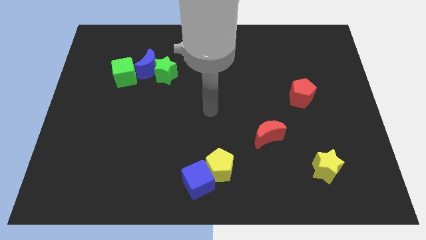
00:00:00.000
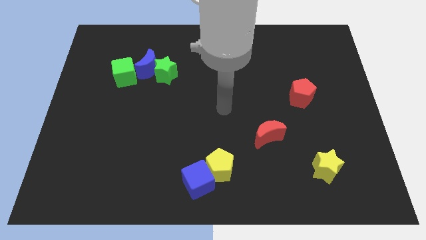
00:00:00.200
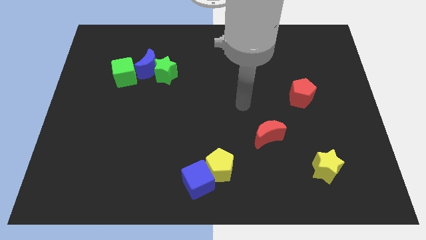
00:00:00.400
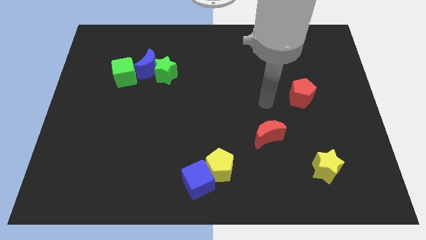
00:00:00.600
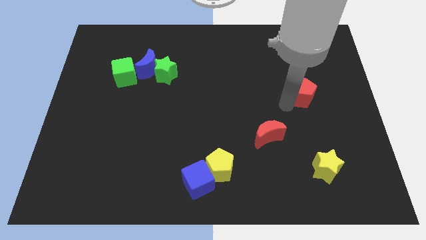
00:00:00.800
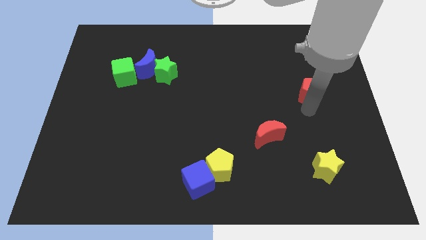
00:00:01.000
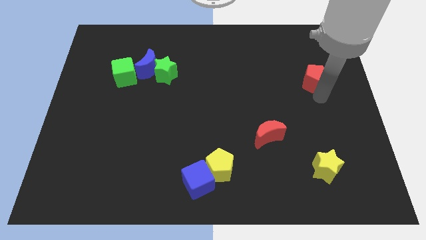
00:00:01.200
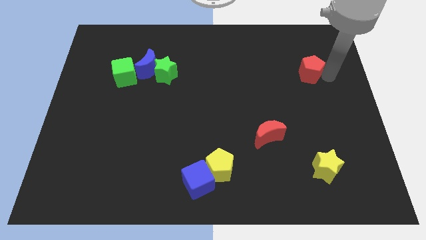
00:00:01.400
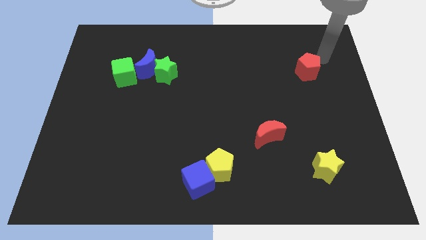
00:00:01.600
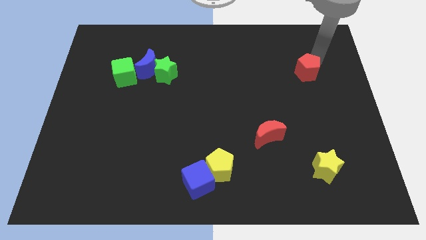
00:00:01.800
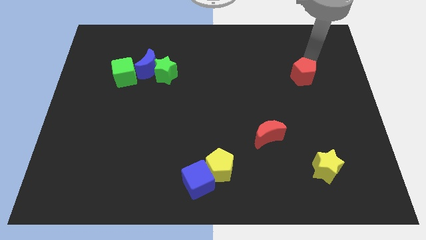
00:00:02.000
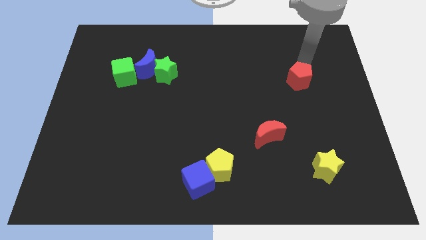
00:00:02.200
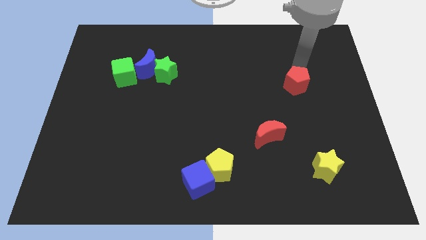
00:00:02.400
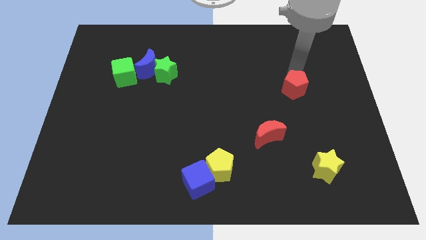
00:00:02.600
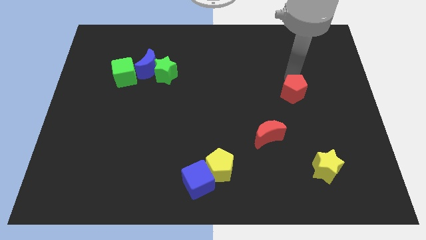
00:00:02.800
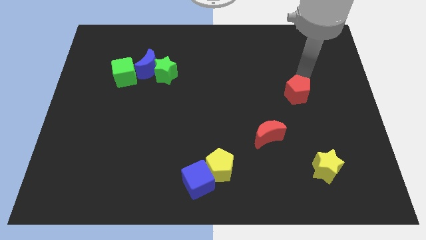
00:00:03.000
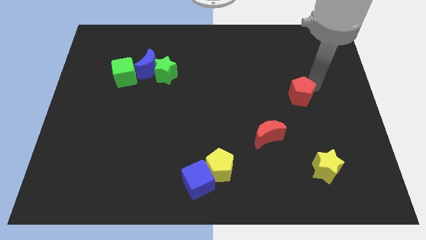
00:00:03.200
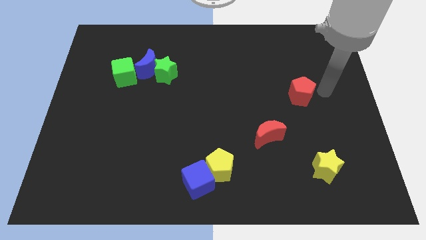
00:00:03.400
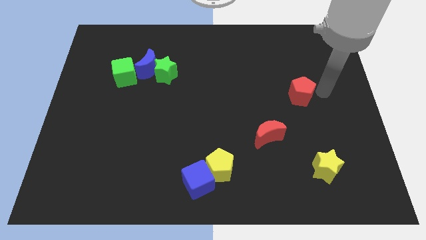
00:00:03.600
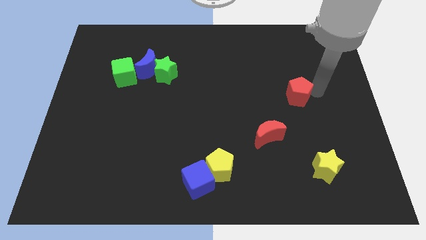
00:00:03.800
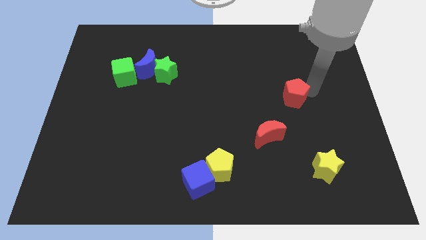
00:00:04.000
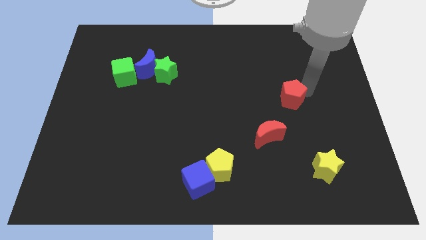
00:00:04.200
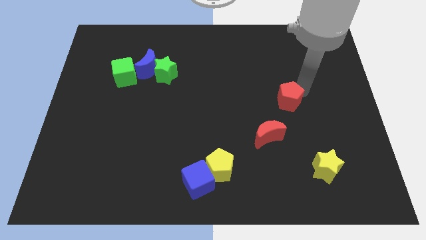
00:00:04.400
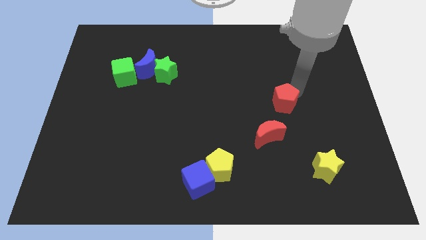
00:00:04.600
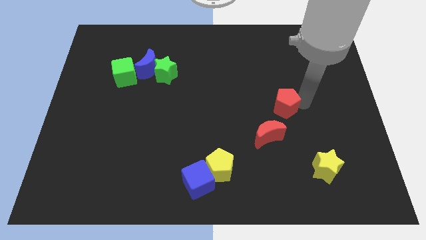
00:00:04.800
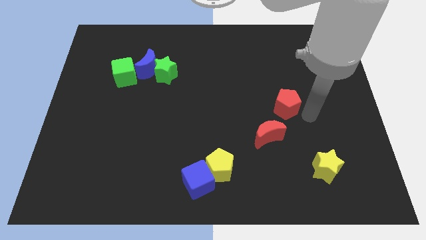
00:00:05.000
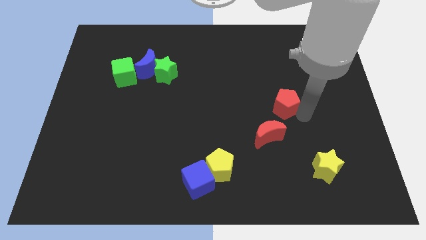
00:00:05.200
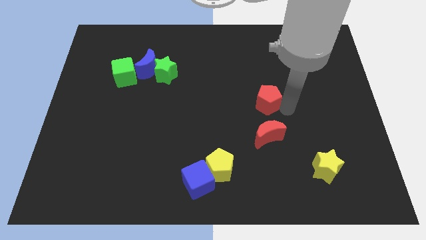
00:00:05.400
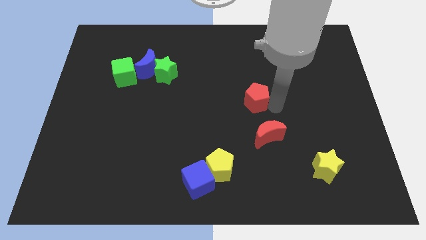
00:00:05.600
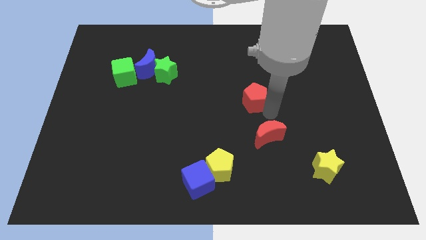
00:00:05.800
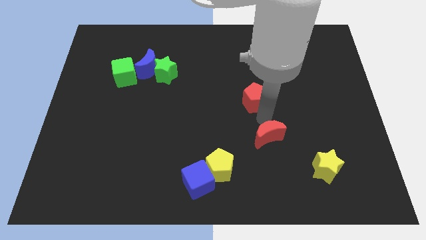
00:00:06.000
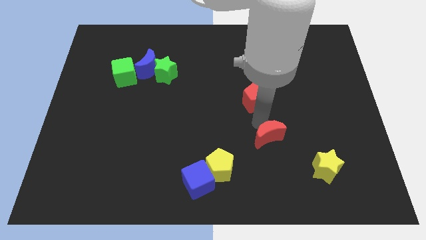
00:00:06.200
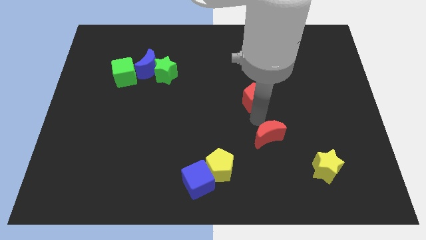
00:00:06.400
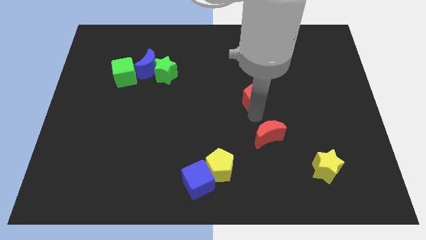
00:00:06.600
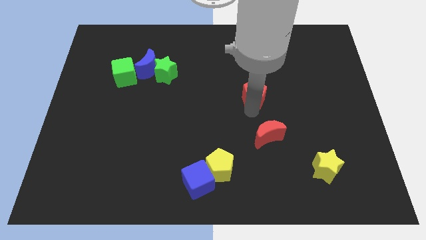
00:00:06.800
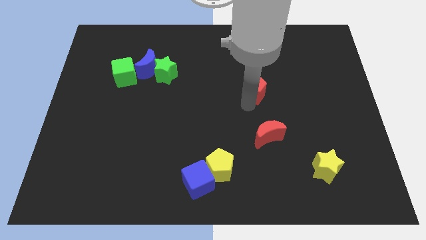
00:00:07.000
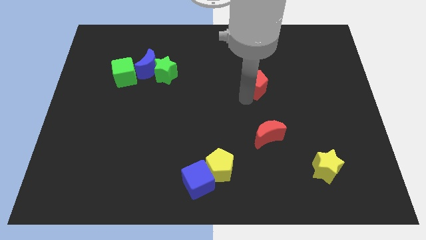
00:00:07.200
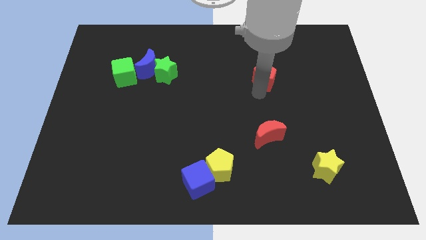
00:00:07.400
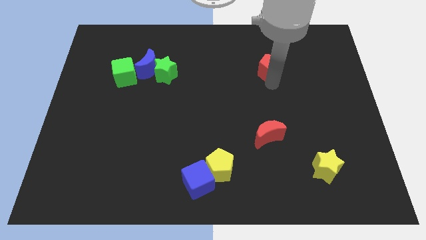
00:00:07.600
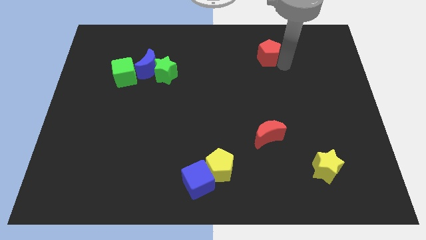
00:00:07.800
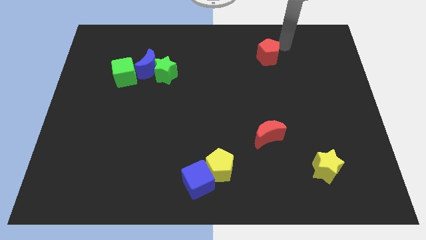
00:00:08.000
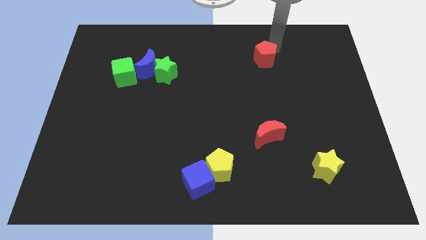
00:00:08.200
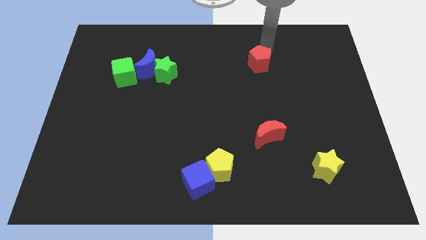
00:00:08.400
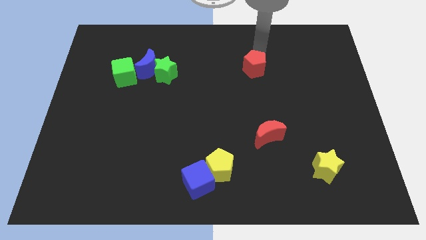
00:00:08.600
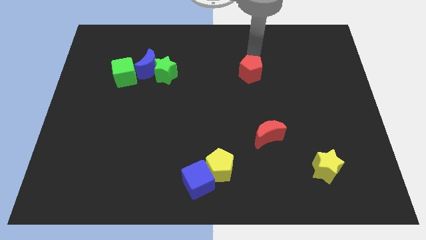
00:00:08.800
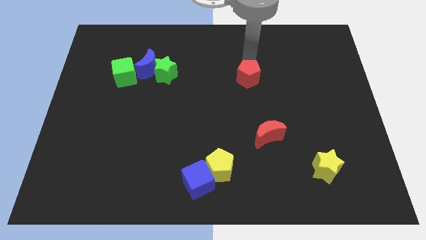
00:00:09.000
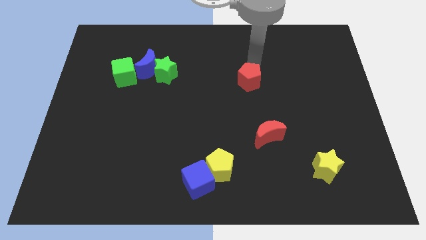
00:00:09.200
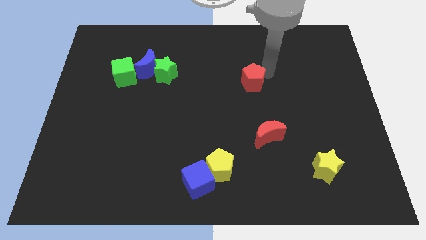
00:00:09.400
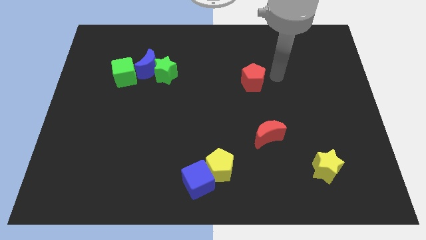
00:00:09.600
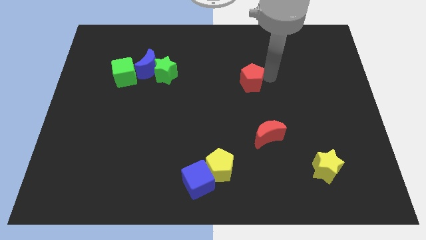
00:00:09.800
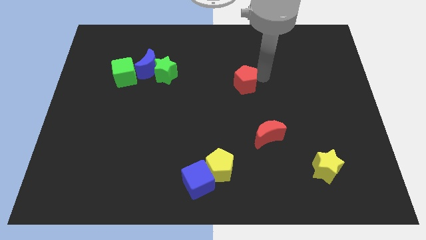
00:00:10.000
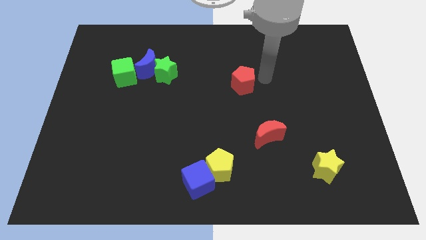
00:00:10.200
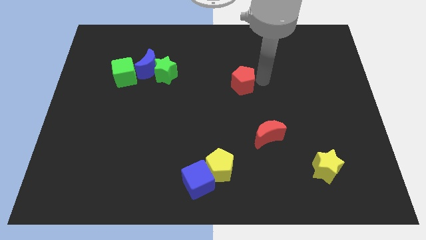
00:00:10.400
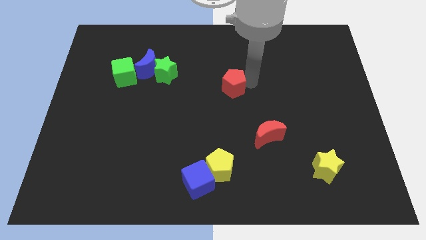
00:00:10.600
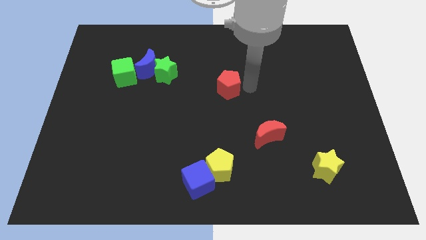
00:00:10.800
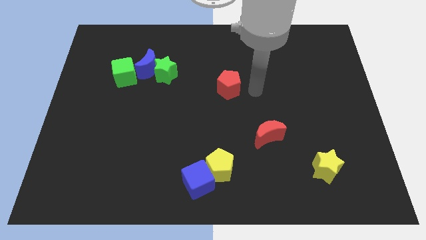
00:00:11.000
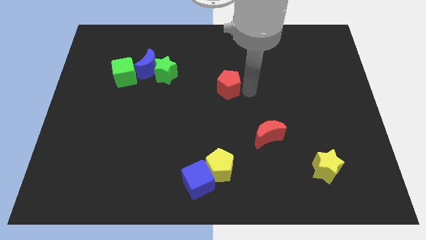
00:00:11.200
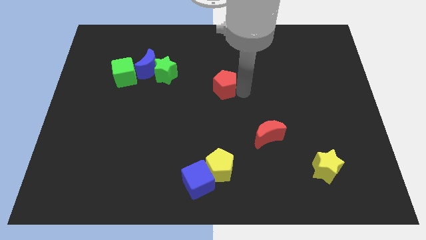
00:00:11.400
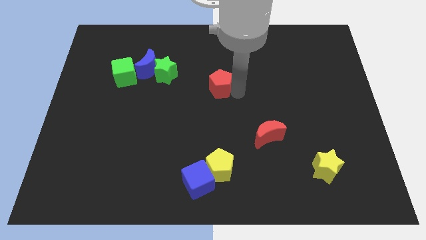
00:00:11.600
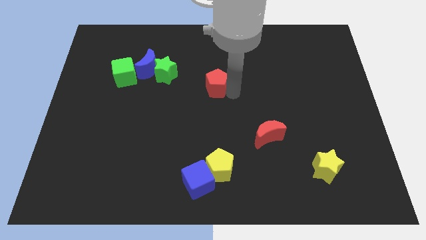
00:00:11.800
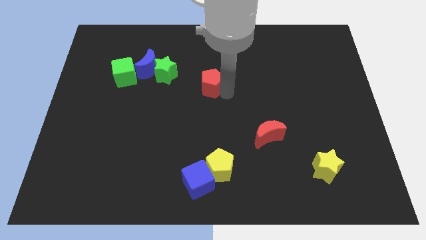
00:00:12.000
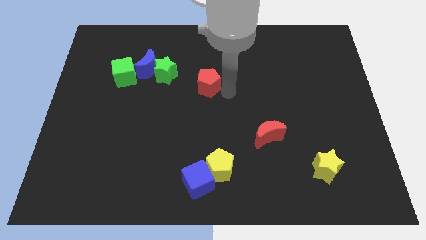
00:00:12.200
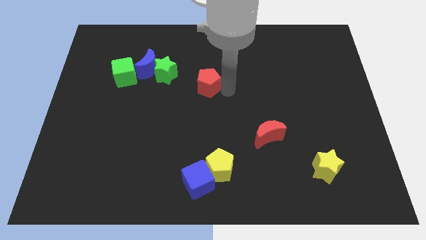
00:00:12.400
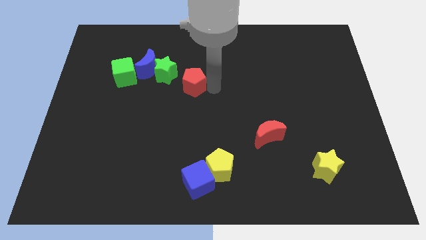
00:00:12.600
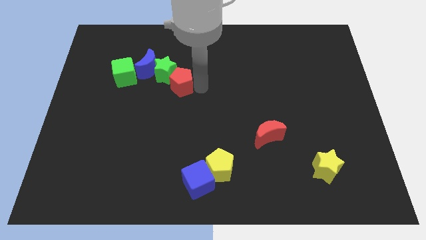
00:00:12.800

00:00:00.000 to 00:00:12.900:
put the red pentagon to the green star

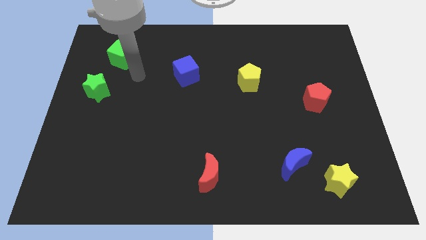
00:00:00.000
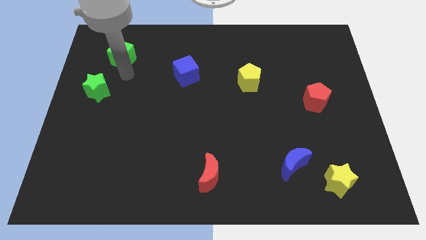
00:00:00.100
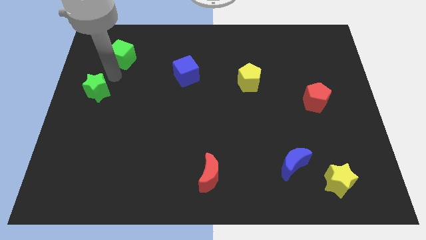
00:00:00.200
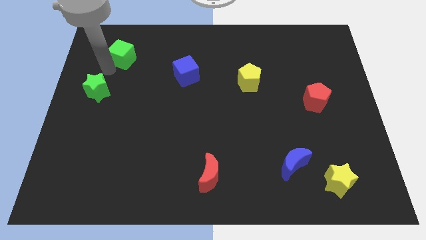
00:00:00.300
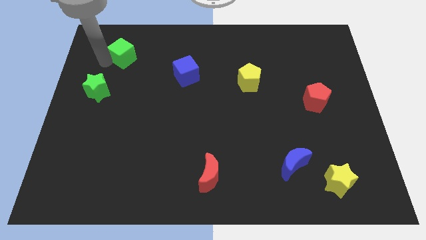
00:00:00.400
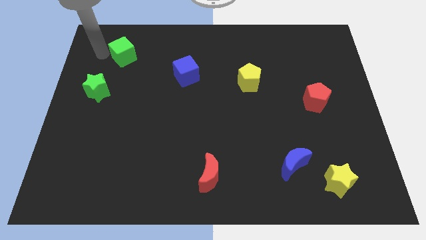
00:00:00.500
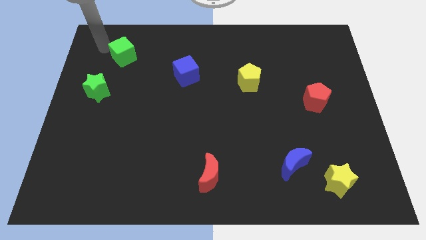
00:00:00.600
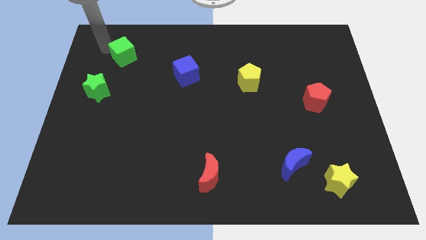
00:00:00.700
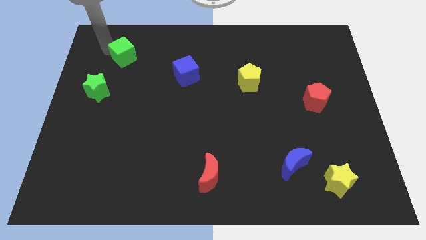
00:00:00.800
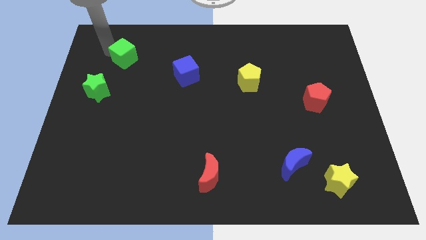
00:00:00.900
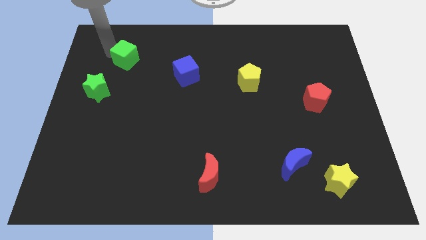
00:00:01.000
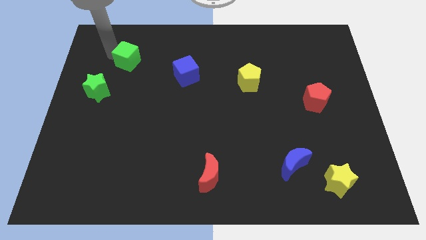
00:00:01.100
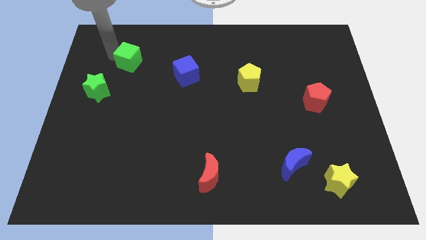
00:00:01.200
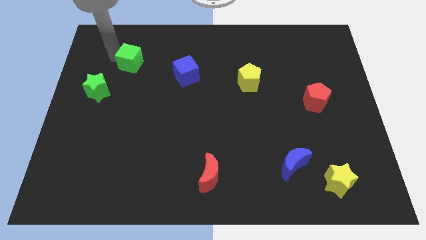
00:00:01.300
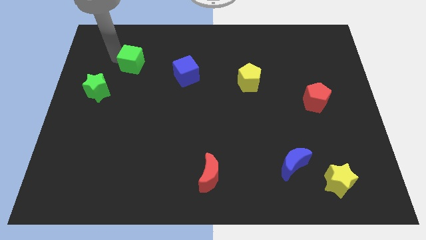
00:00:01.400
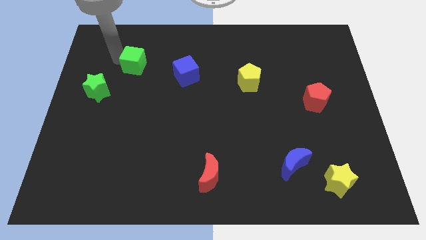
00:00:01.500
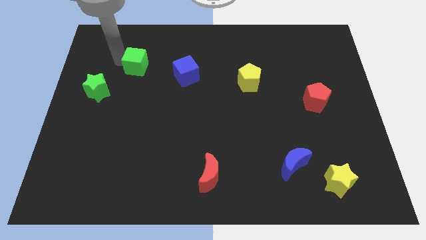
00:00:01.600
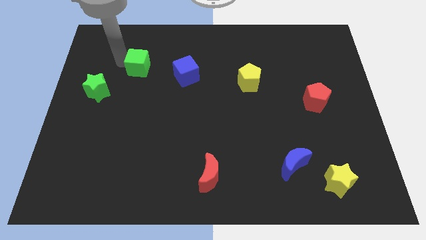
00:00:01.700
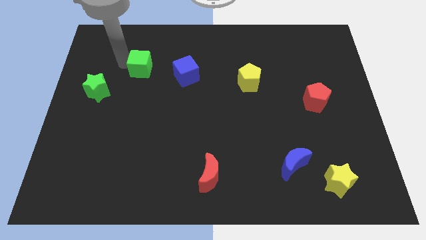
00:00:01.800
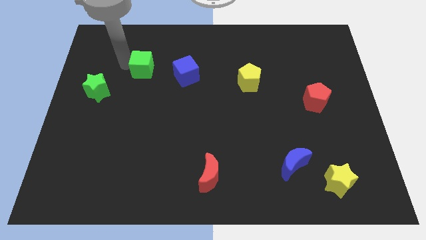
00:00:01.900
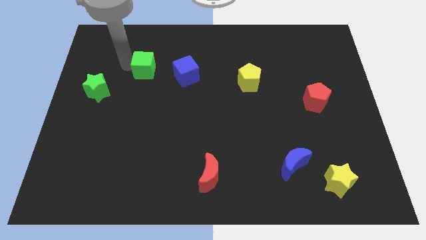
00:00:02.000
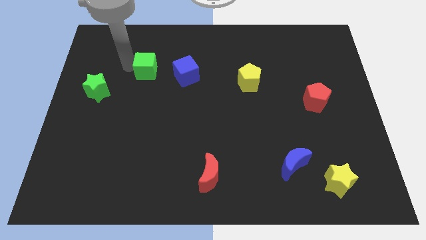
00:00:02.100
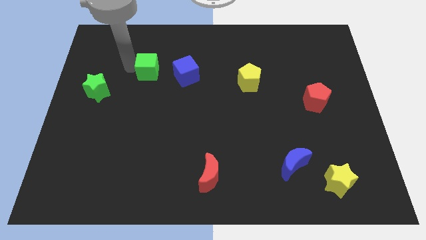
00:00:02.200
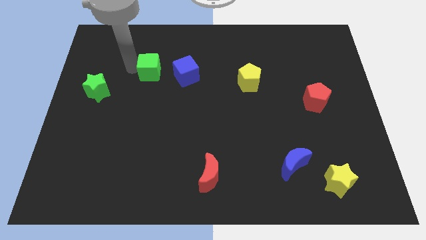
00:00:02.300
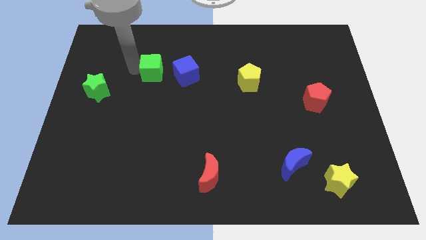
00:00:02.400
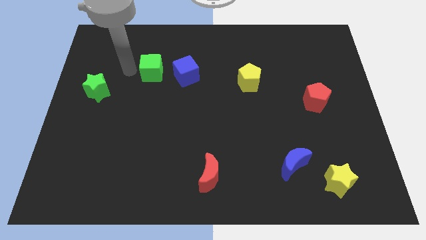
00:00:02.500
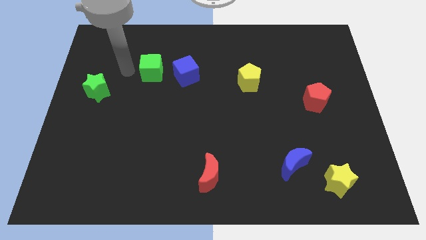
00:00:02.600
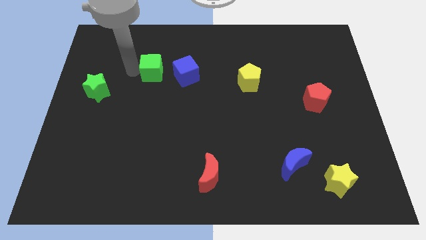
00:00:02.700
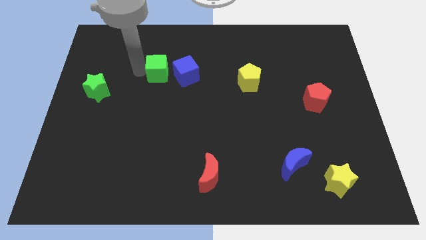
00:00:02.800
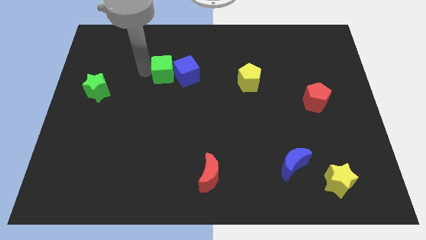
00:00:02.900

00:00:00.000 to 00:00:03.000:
move the green cube next to the blue cube
